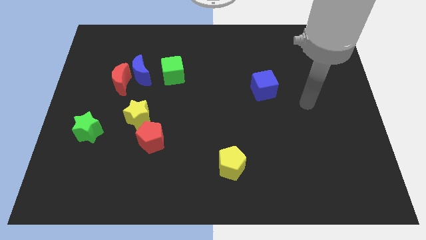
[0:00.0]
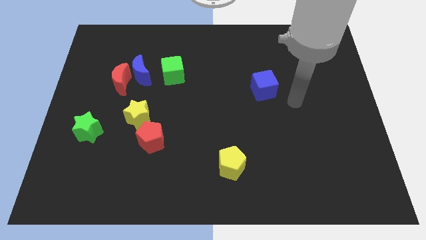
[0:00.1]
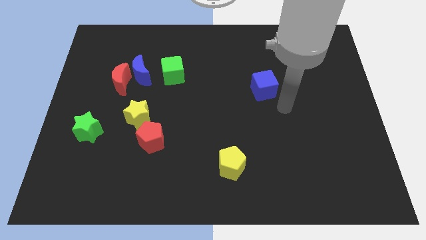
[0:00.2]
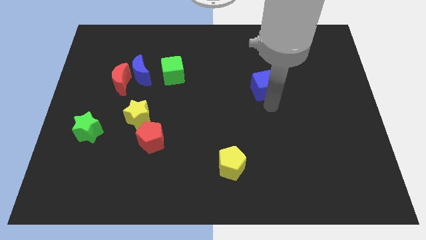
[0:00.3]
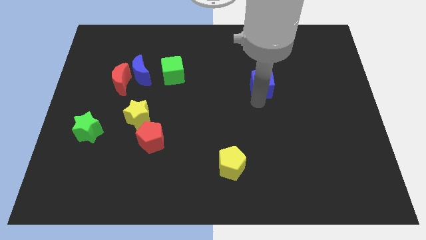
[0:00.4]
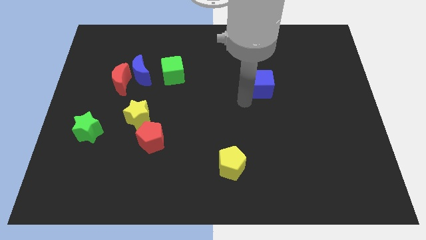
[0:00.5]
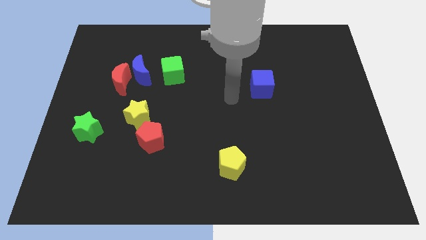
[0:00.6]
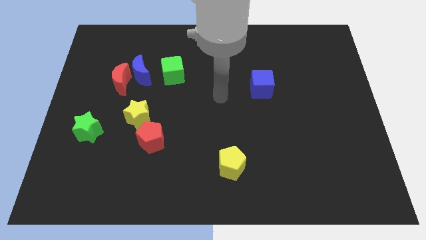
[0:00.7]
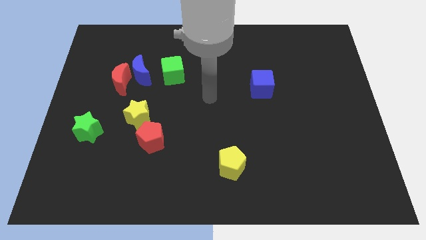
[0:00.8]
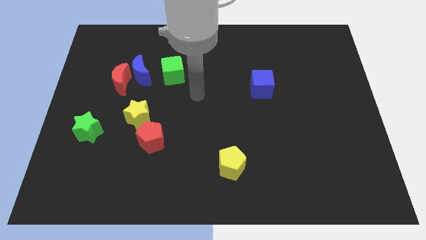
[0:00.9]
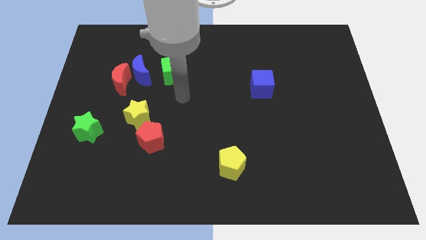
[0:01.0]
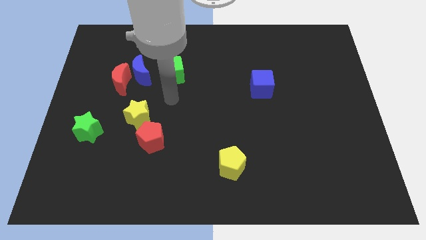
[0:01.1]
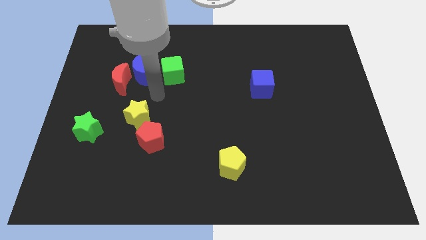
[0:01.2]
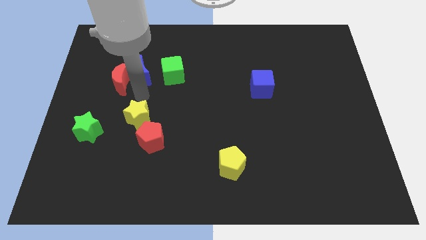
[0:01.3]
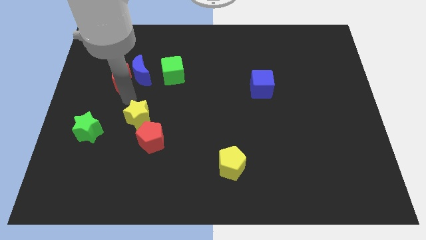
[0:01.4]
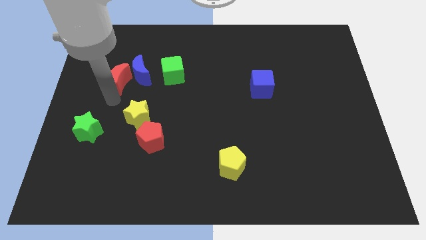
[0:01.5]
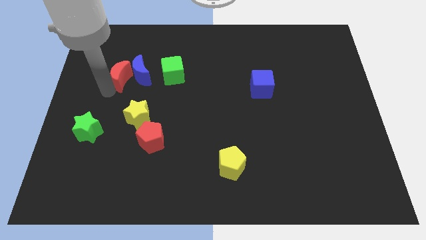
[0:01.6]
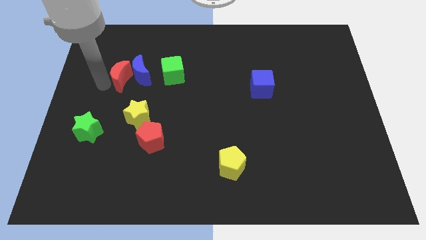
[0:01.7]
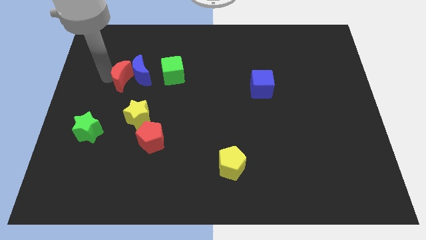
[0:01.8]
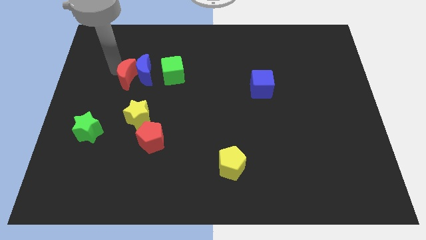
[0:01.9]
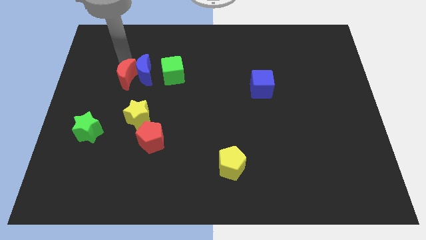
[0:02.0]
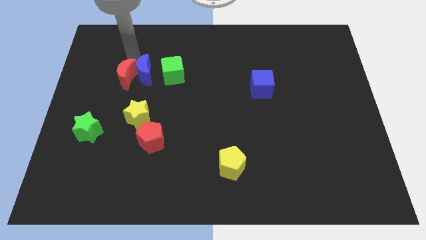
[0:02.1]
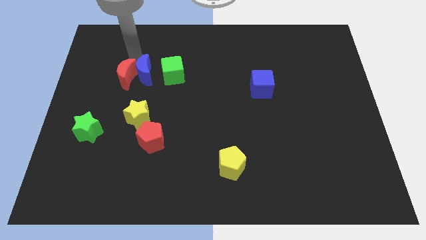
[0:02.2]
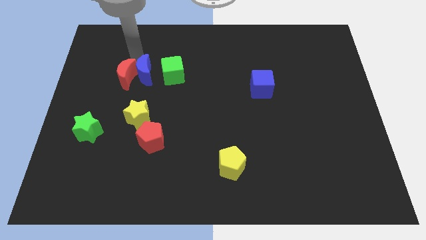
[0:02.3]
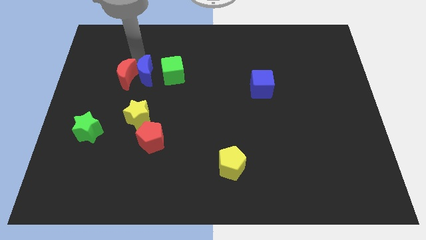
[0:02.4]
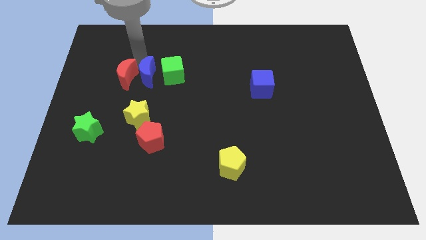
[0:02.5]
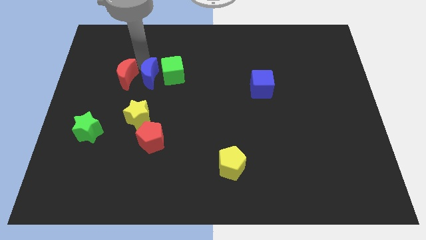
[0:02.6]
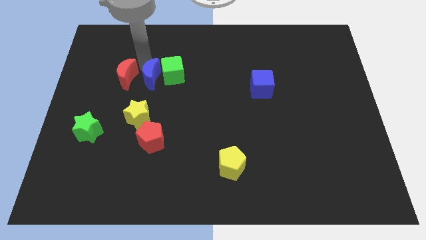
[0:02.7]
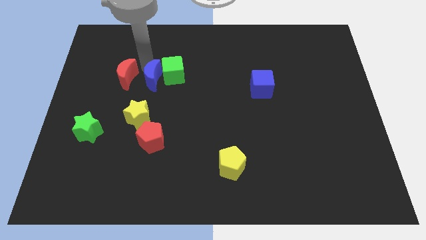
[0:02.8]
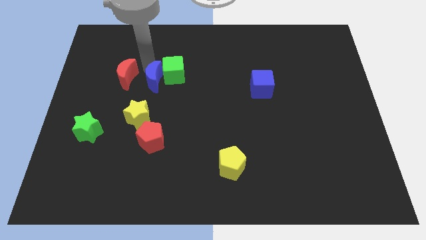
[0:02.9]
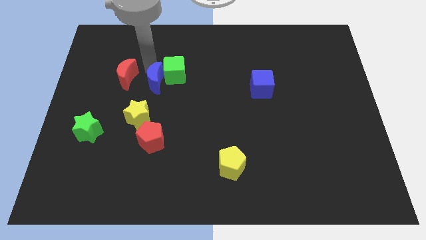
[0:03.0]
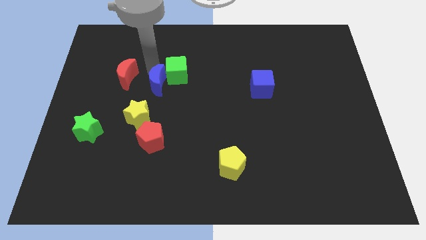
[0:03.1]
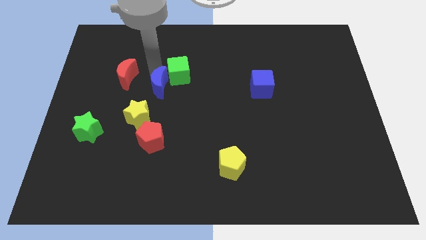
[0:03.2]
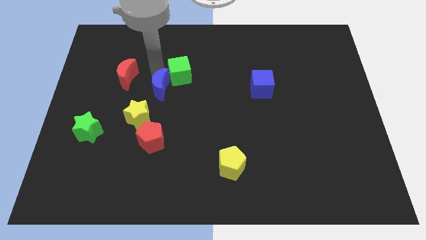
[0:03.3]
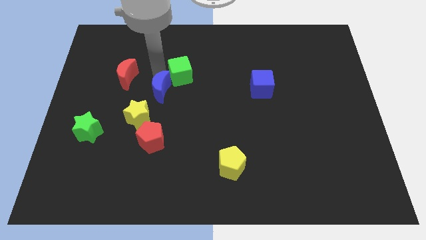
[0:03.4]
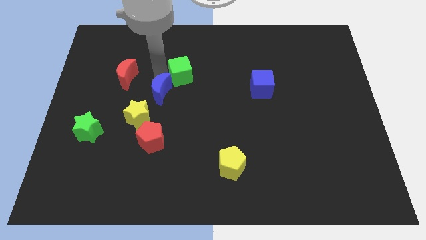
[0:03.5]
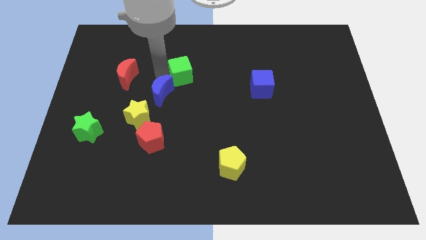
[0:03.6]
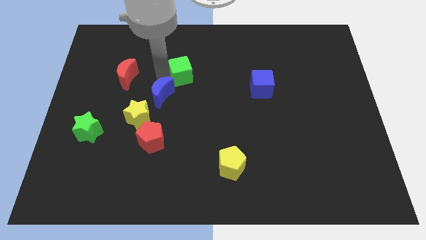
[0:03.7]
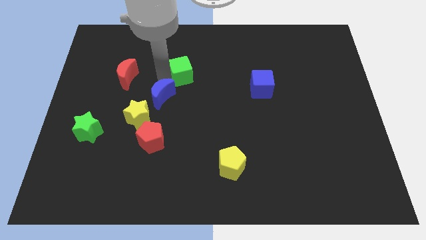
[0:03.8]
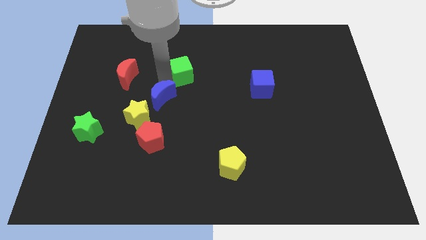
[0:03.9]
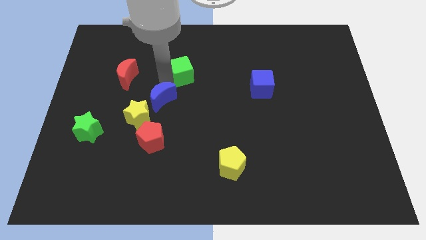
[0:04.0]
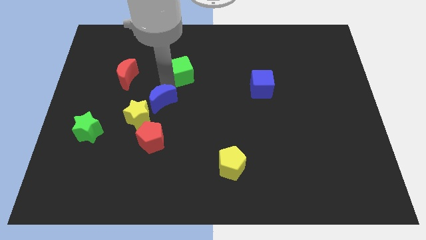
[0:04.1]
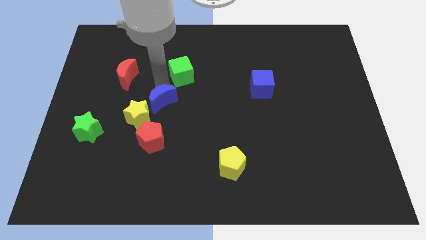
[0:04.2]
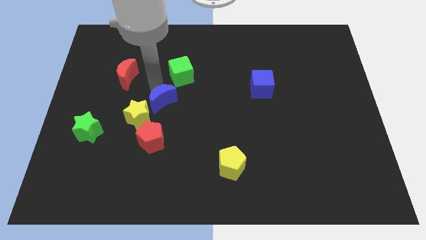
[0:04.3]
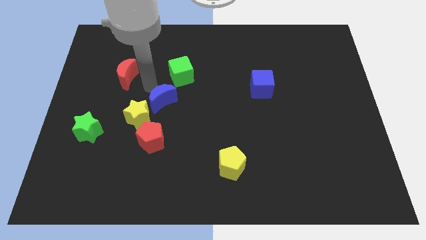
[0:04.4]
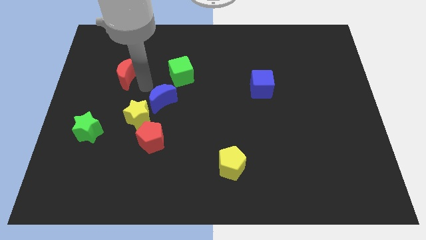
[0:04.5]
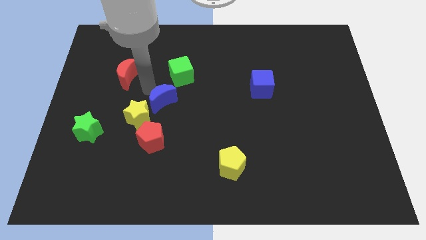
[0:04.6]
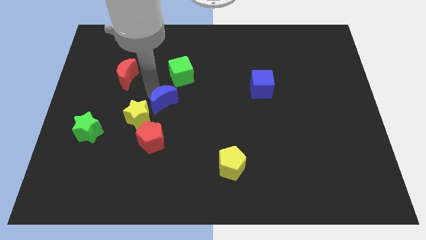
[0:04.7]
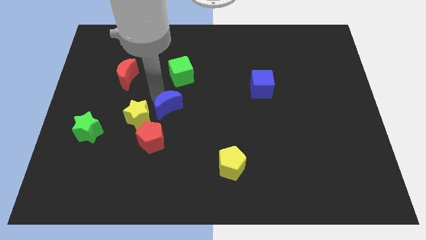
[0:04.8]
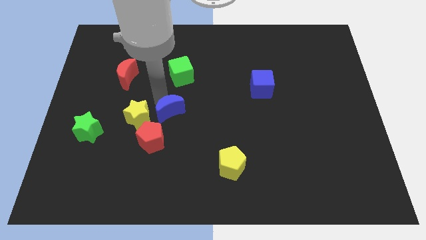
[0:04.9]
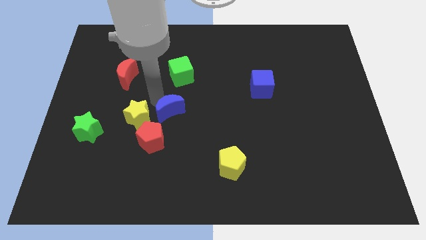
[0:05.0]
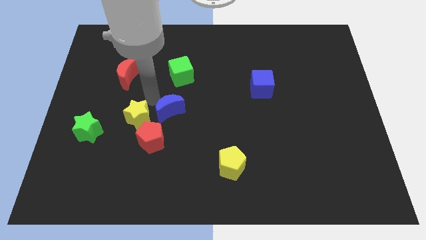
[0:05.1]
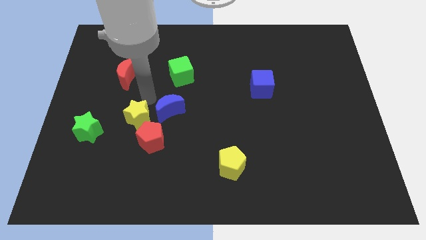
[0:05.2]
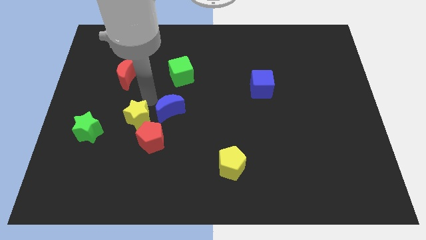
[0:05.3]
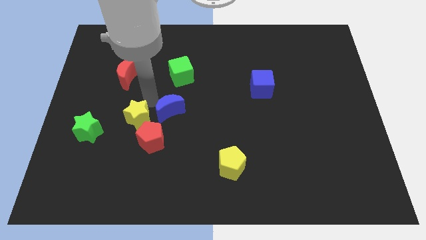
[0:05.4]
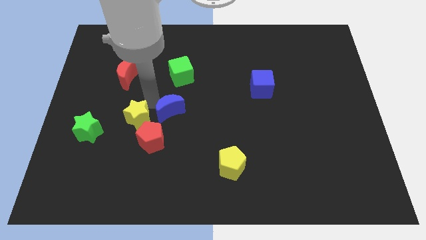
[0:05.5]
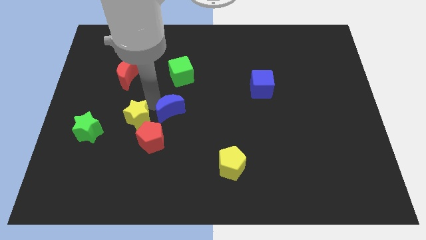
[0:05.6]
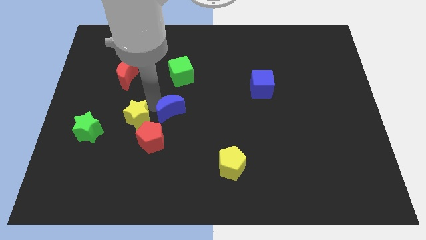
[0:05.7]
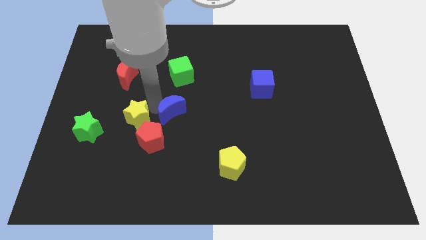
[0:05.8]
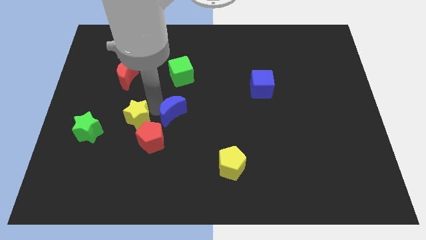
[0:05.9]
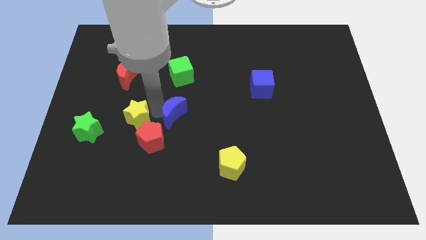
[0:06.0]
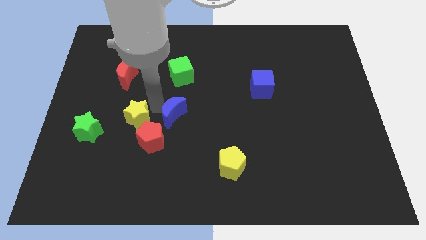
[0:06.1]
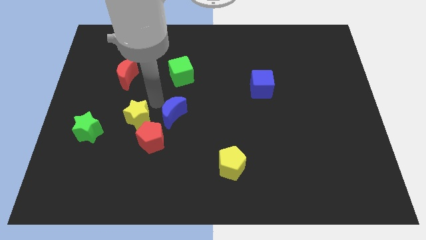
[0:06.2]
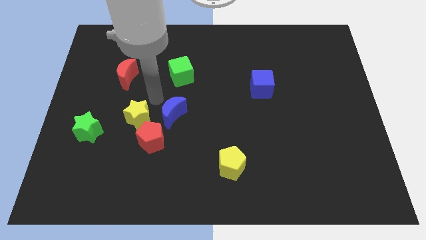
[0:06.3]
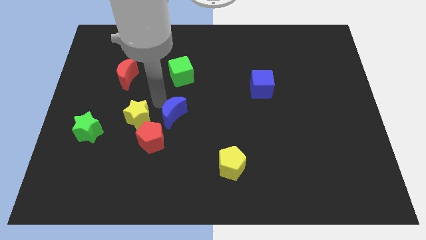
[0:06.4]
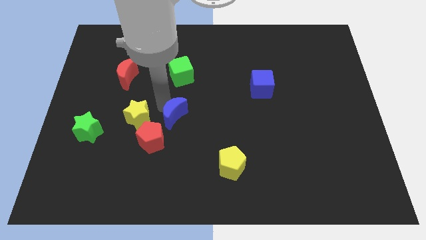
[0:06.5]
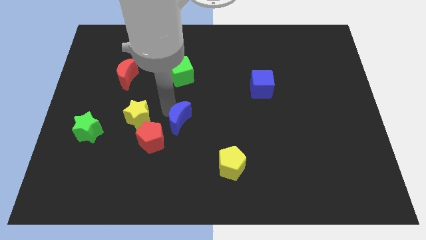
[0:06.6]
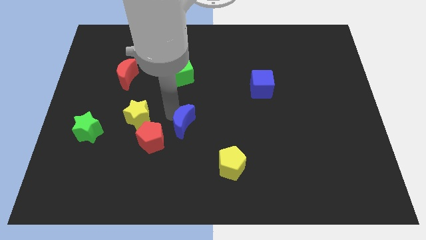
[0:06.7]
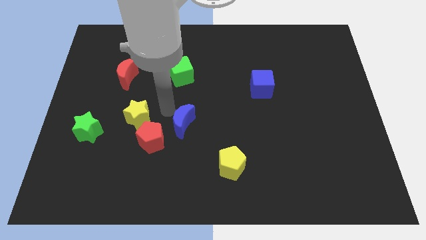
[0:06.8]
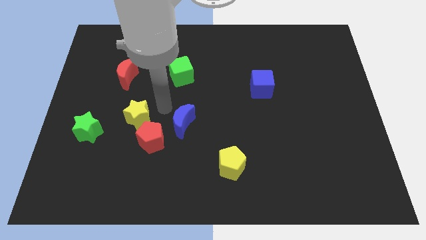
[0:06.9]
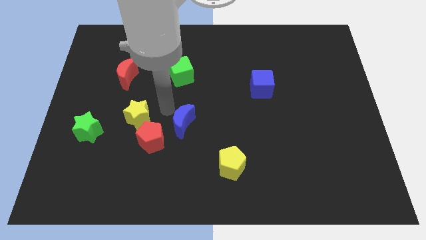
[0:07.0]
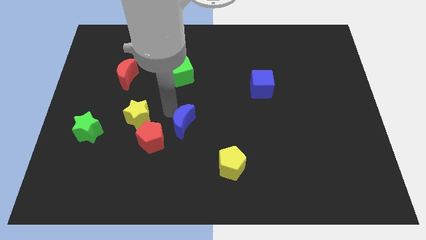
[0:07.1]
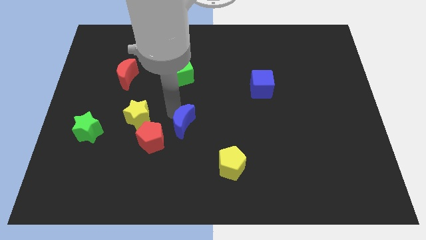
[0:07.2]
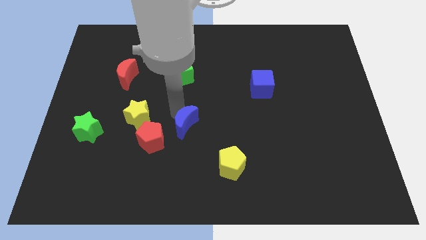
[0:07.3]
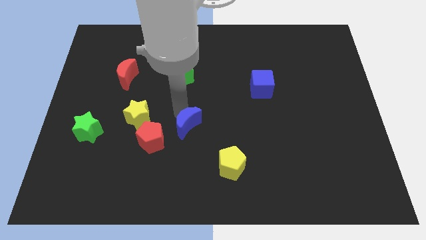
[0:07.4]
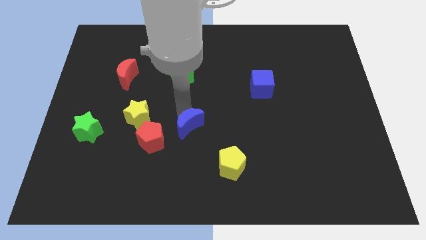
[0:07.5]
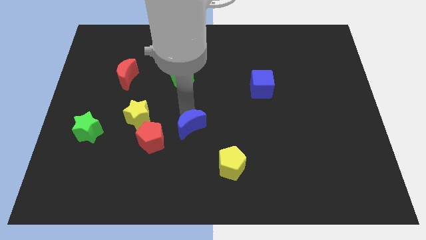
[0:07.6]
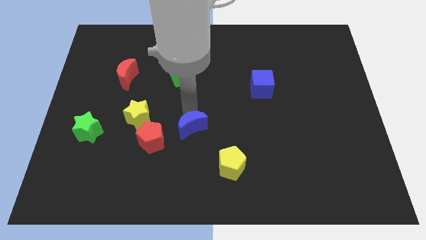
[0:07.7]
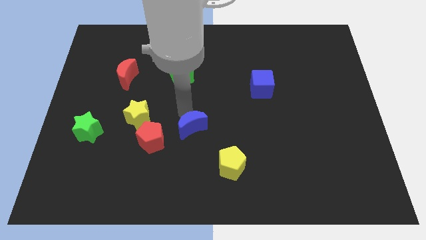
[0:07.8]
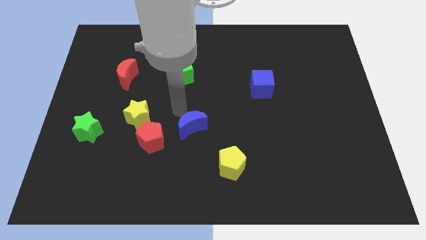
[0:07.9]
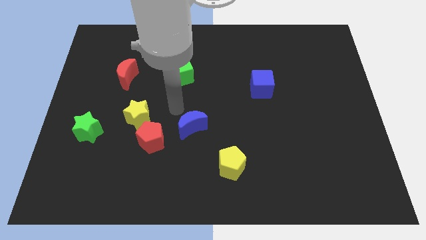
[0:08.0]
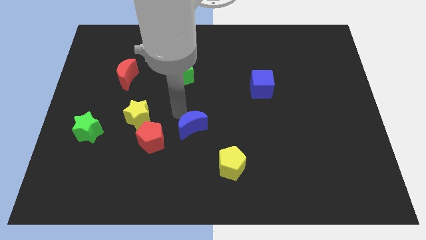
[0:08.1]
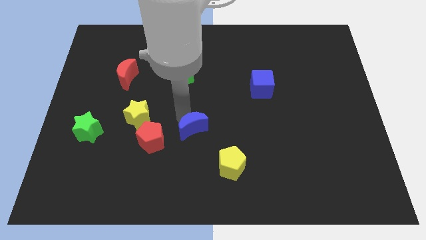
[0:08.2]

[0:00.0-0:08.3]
slide the blue moon diagonally up and to the left of the yellow pentagon
